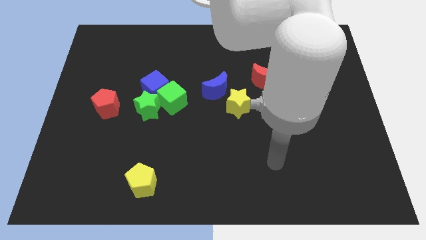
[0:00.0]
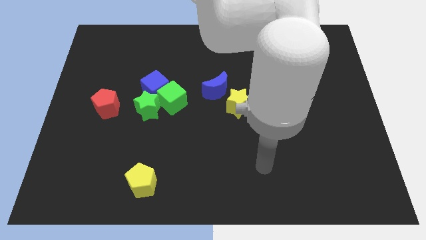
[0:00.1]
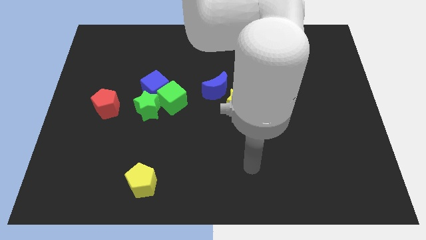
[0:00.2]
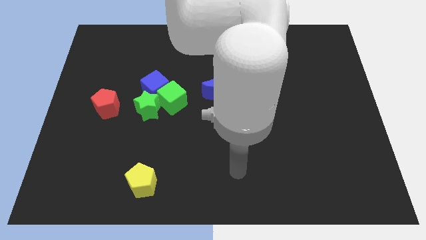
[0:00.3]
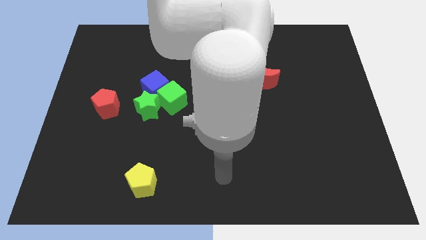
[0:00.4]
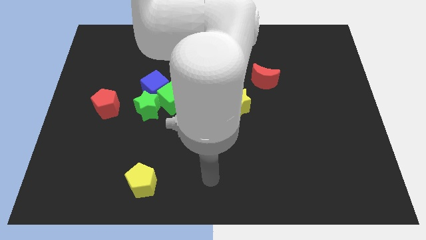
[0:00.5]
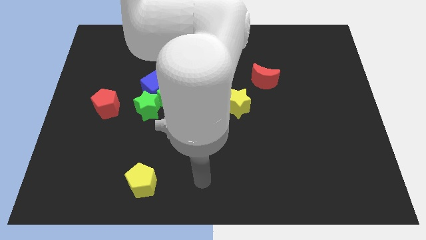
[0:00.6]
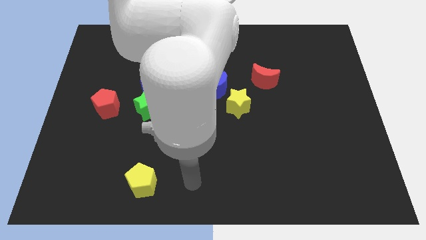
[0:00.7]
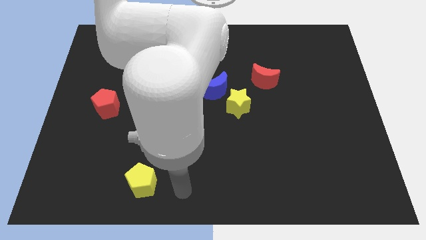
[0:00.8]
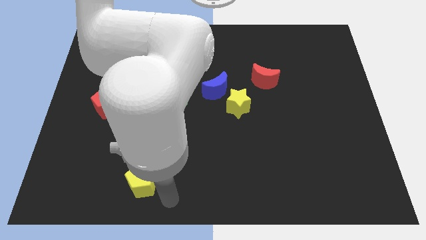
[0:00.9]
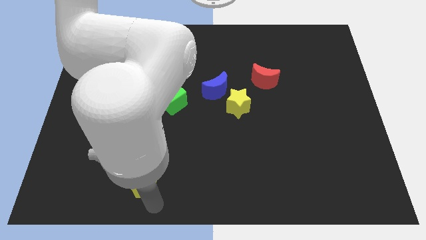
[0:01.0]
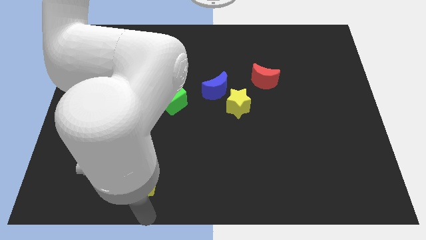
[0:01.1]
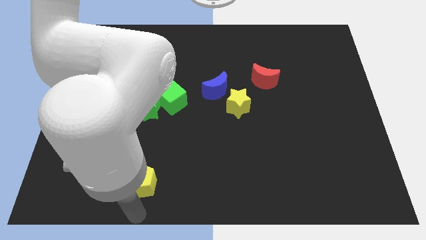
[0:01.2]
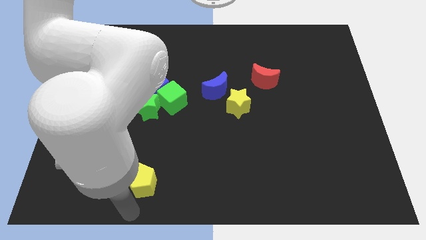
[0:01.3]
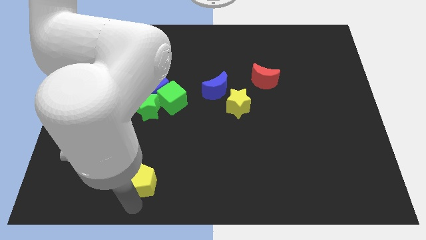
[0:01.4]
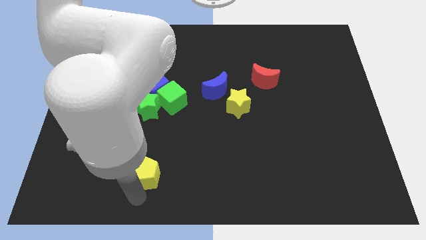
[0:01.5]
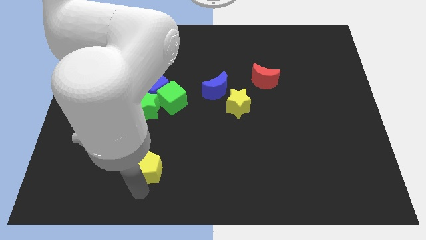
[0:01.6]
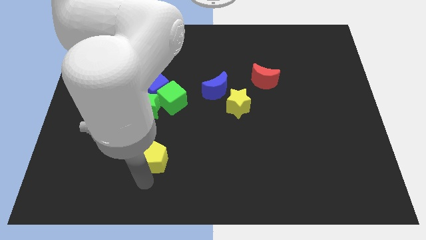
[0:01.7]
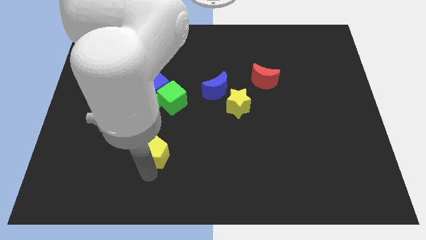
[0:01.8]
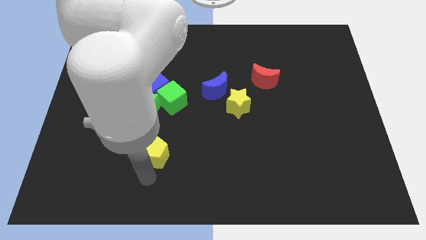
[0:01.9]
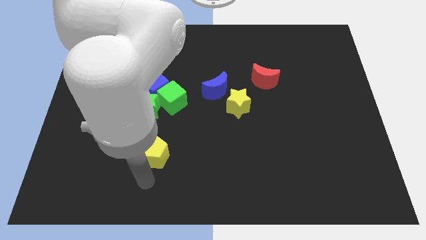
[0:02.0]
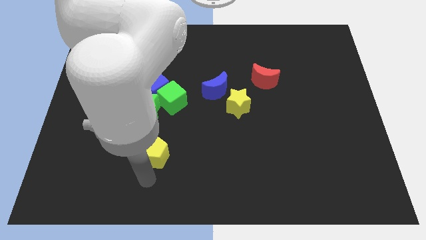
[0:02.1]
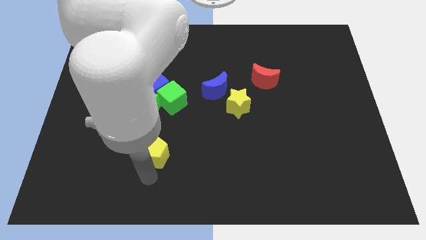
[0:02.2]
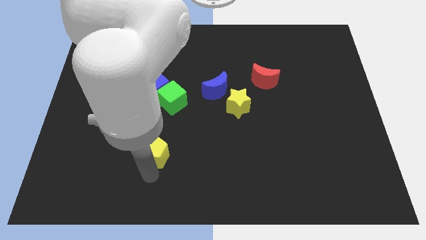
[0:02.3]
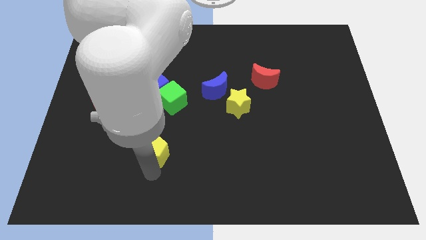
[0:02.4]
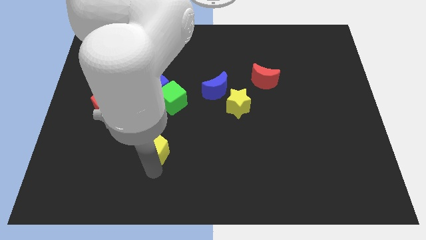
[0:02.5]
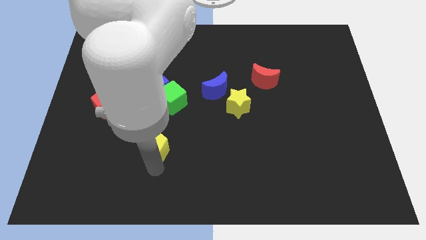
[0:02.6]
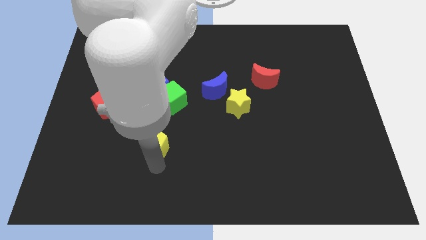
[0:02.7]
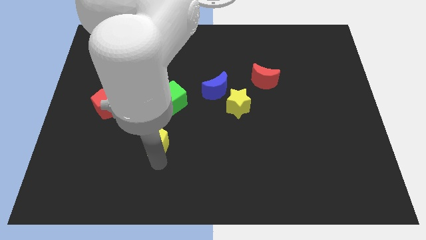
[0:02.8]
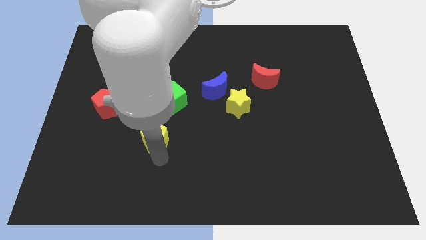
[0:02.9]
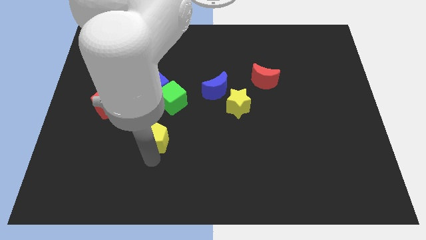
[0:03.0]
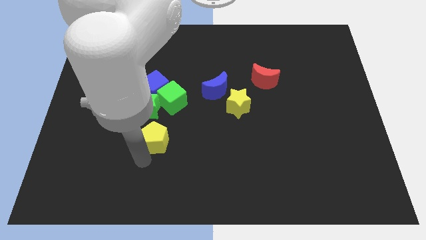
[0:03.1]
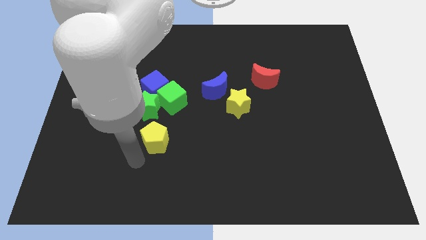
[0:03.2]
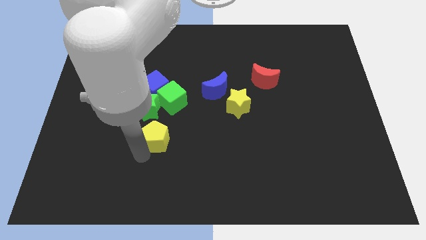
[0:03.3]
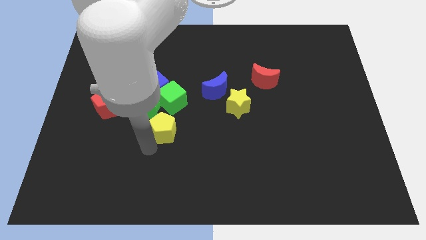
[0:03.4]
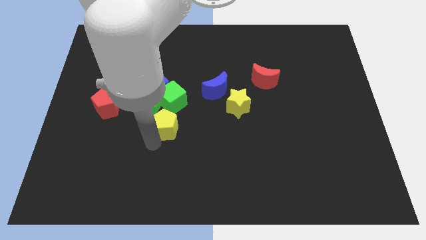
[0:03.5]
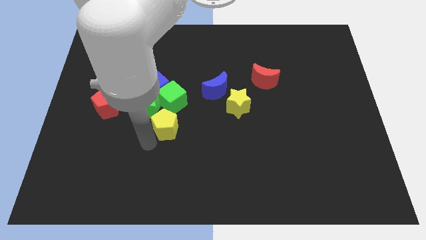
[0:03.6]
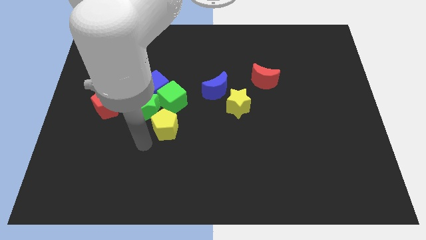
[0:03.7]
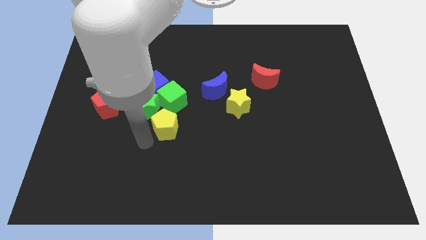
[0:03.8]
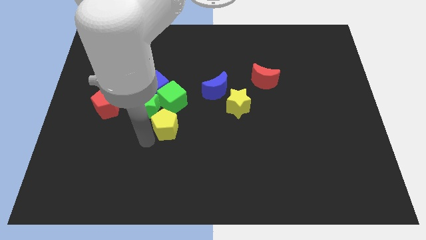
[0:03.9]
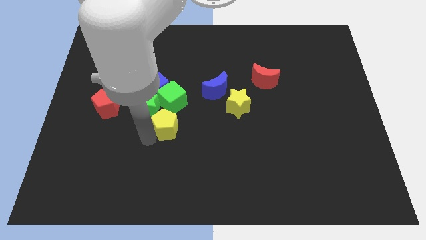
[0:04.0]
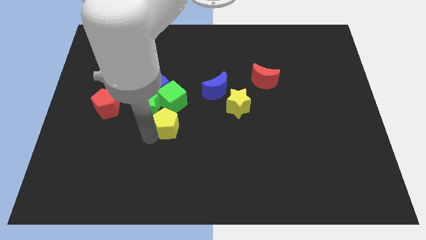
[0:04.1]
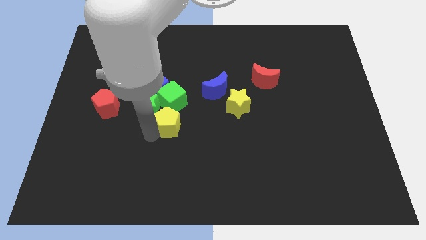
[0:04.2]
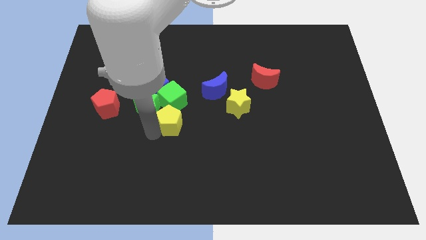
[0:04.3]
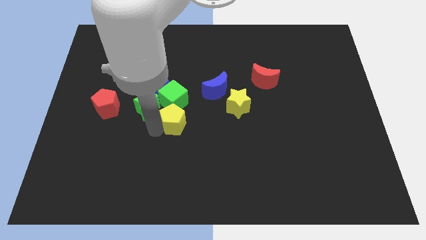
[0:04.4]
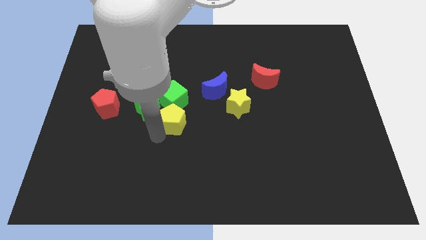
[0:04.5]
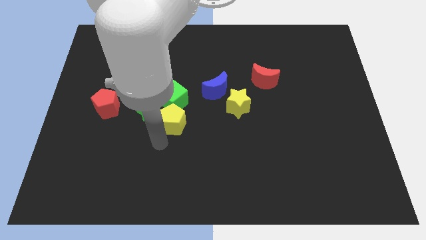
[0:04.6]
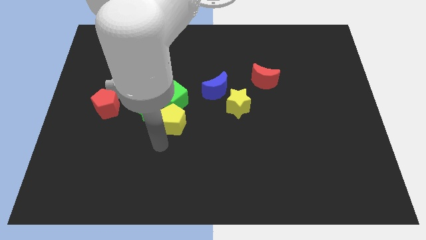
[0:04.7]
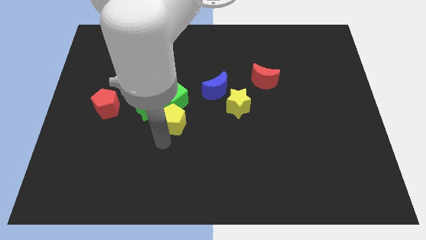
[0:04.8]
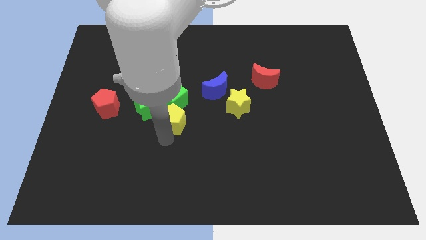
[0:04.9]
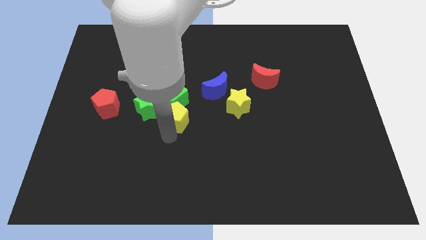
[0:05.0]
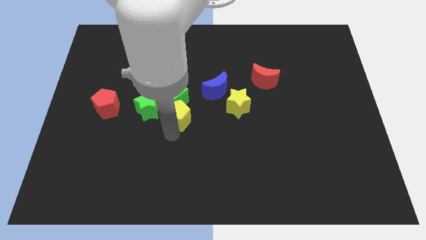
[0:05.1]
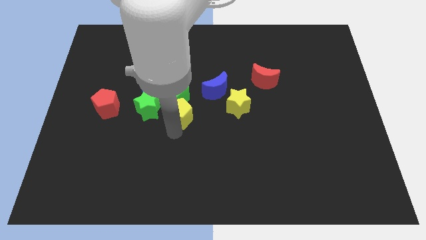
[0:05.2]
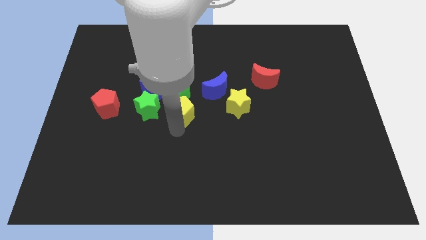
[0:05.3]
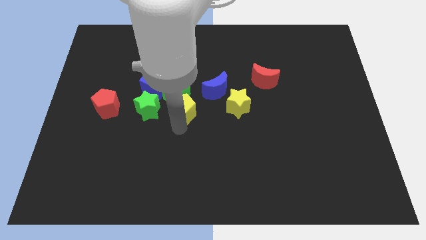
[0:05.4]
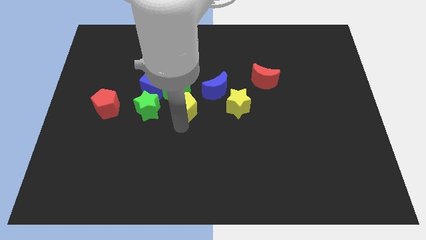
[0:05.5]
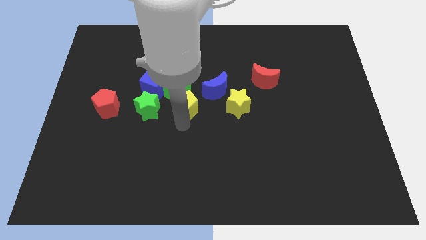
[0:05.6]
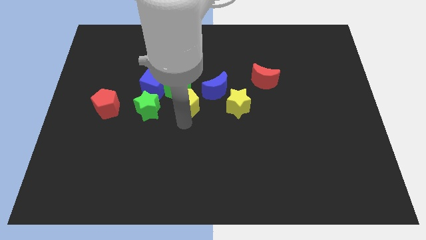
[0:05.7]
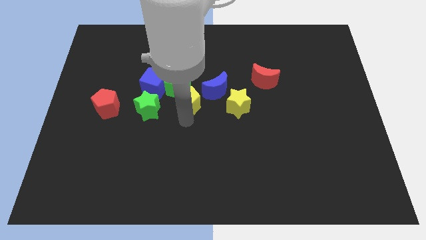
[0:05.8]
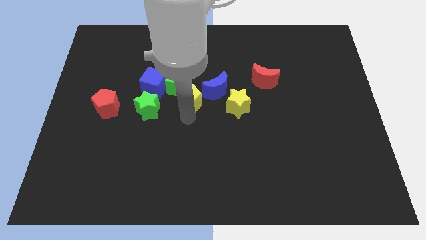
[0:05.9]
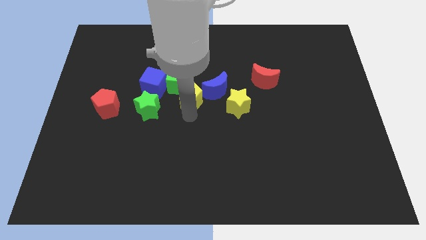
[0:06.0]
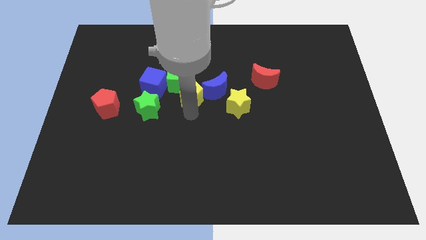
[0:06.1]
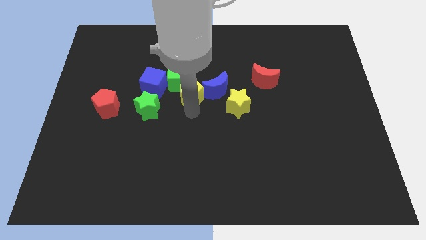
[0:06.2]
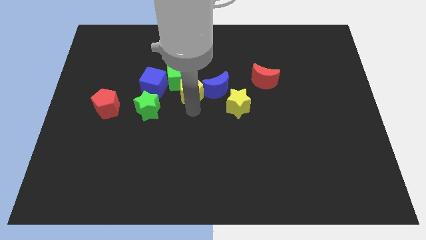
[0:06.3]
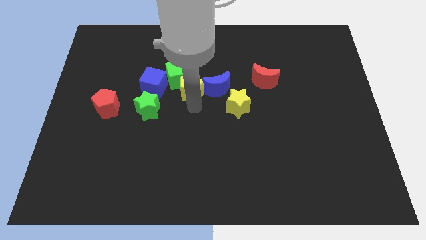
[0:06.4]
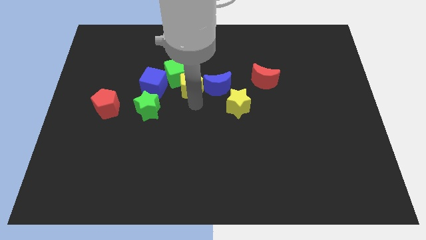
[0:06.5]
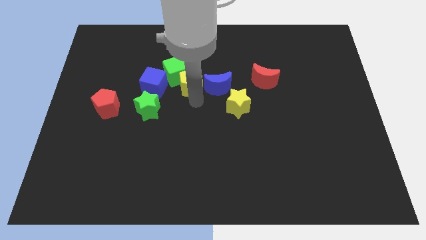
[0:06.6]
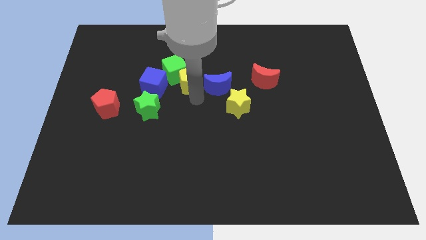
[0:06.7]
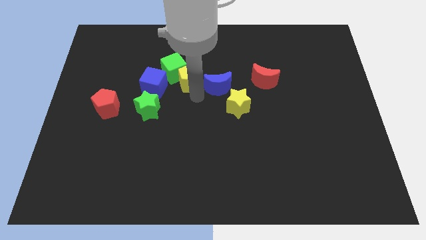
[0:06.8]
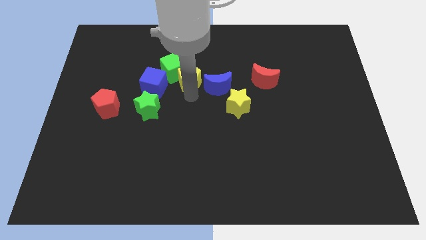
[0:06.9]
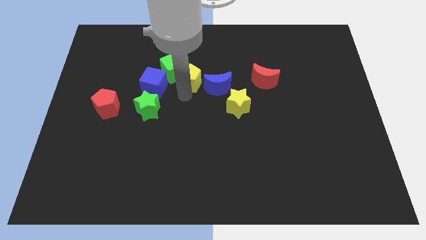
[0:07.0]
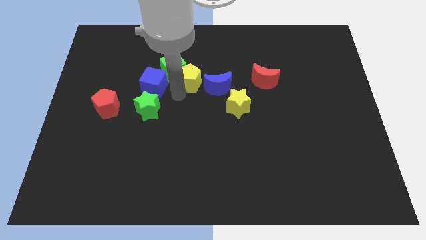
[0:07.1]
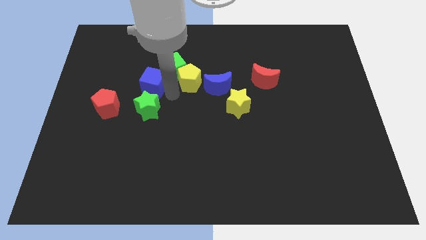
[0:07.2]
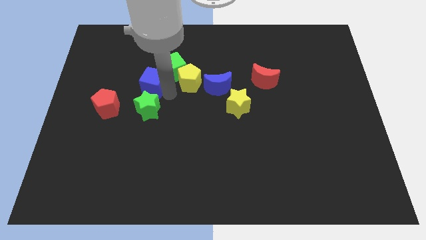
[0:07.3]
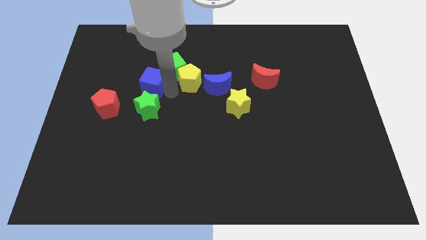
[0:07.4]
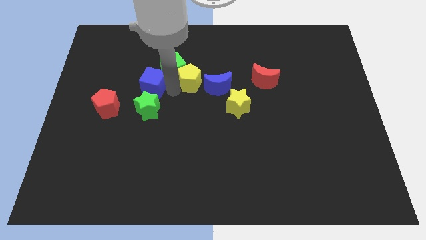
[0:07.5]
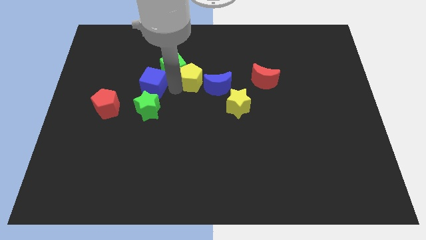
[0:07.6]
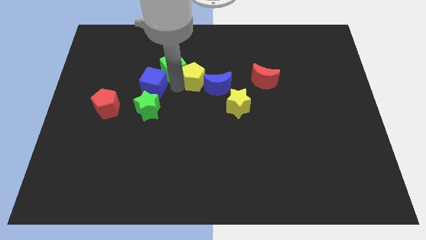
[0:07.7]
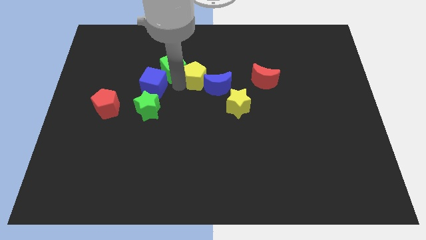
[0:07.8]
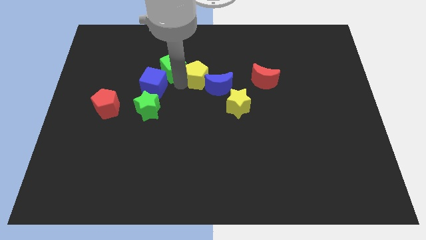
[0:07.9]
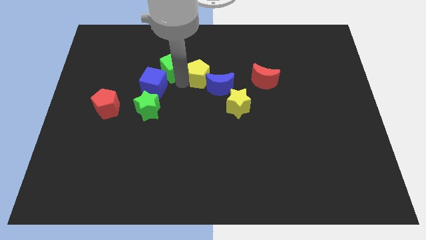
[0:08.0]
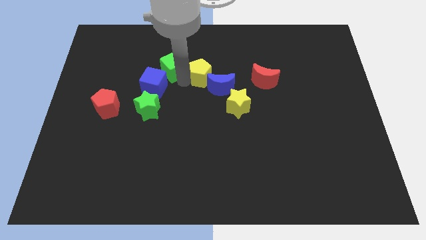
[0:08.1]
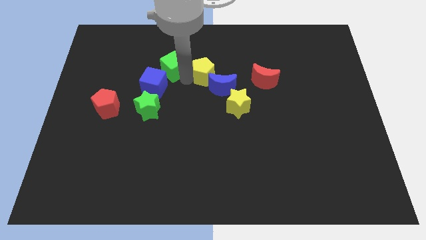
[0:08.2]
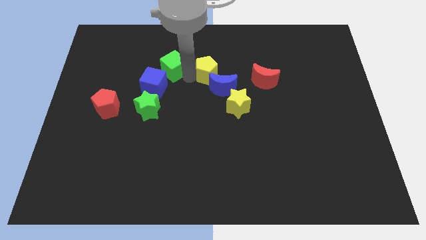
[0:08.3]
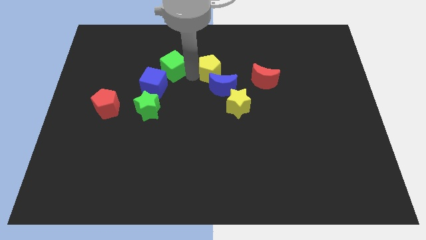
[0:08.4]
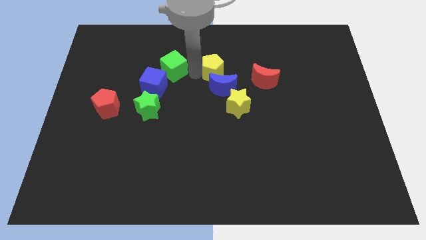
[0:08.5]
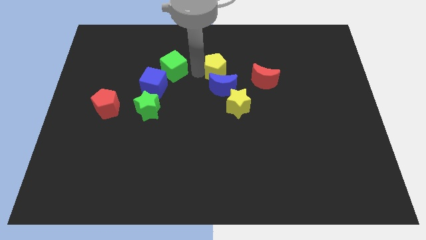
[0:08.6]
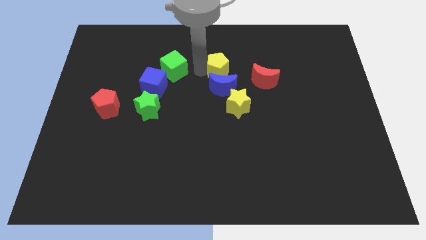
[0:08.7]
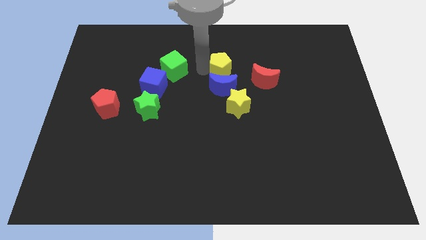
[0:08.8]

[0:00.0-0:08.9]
move the yellow pentagon diagonally up and to the right of the blue moon
